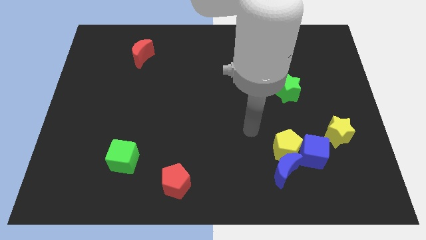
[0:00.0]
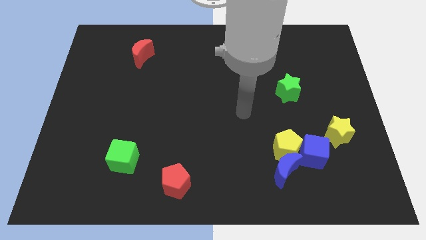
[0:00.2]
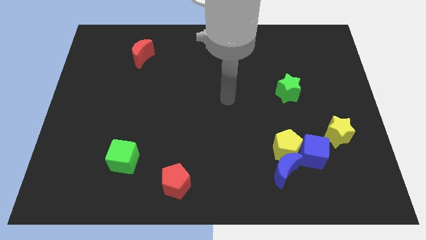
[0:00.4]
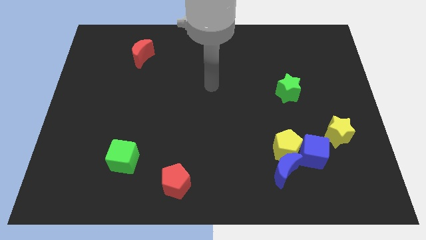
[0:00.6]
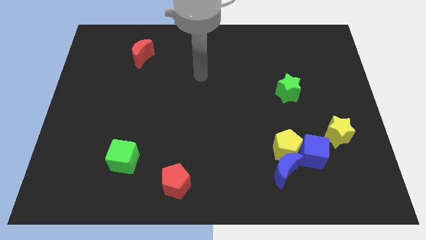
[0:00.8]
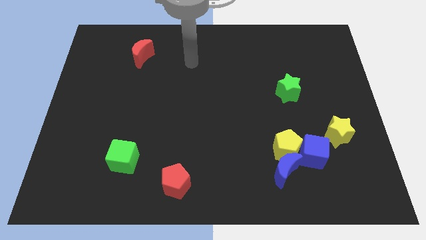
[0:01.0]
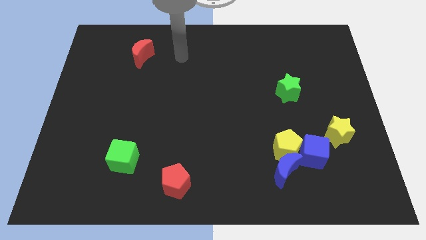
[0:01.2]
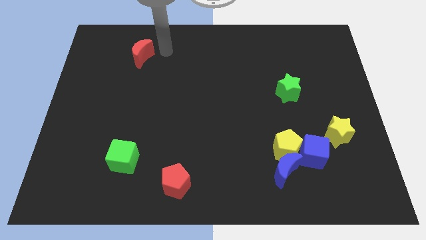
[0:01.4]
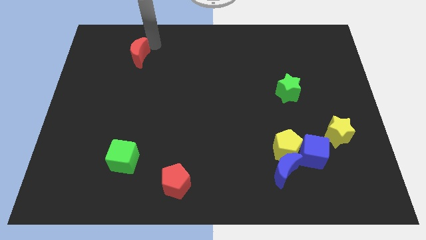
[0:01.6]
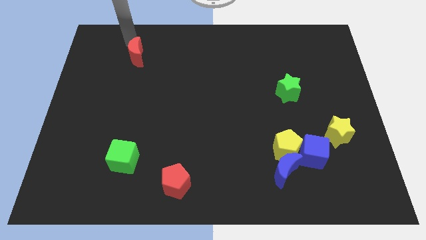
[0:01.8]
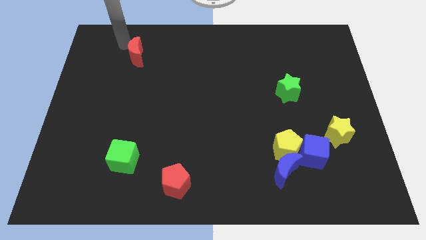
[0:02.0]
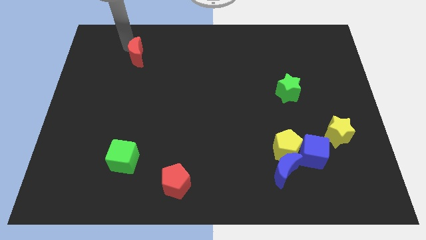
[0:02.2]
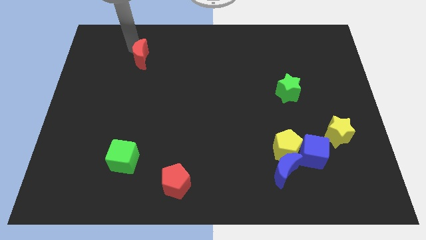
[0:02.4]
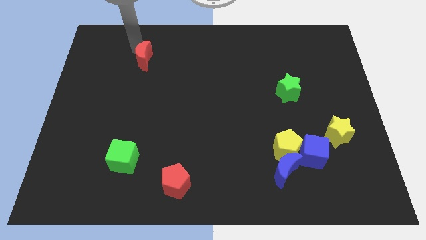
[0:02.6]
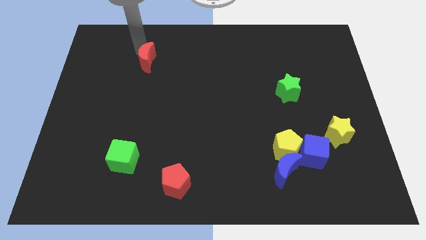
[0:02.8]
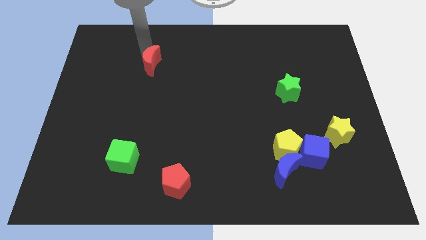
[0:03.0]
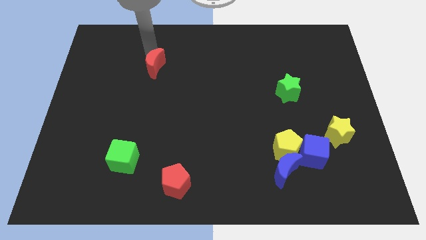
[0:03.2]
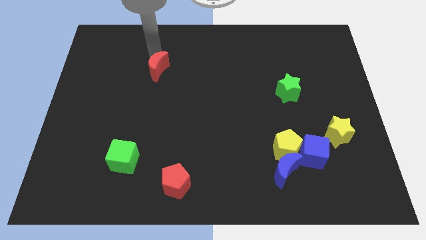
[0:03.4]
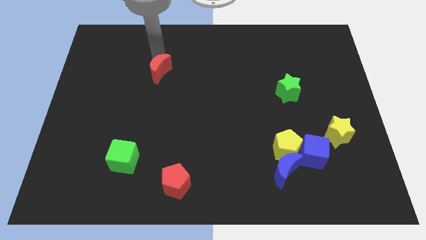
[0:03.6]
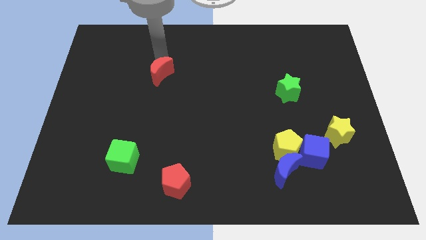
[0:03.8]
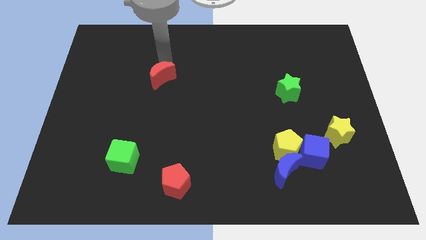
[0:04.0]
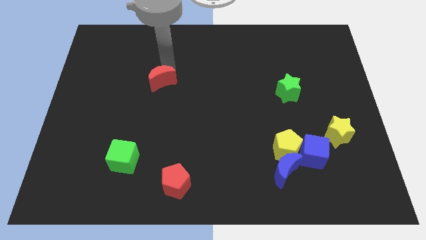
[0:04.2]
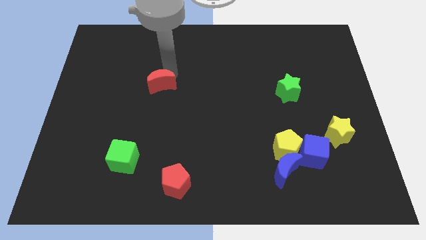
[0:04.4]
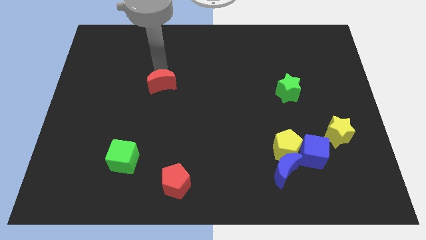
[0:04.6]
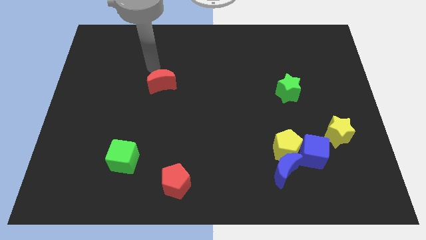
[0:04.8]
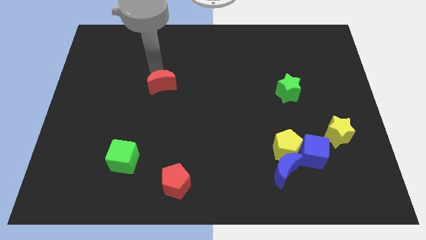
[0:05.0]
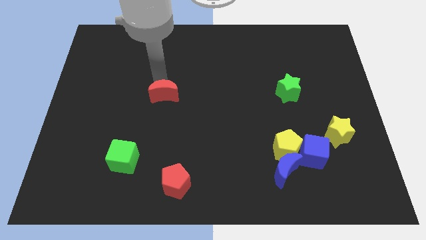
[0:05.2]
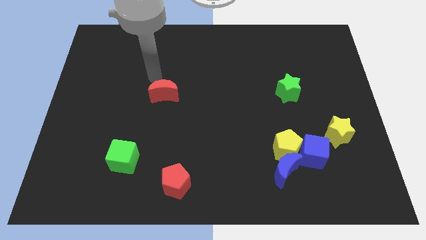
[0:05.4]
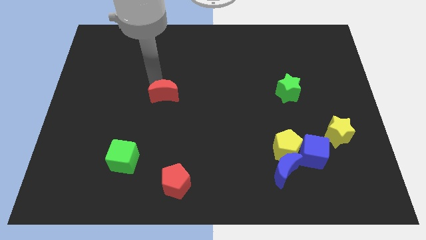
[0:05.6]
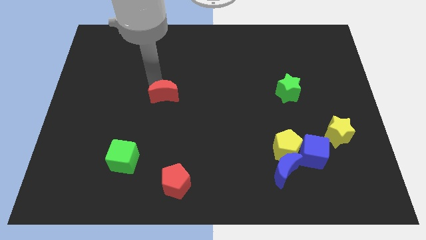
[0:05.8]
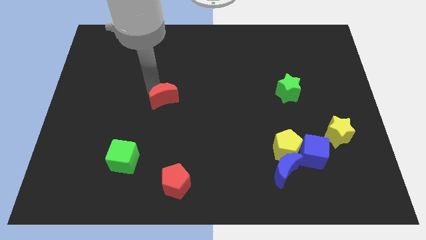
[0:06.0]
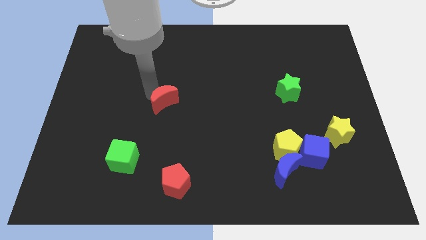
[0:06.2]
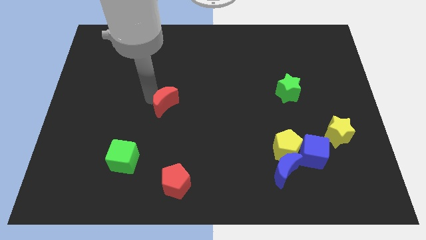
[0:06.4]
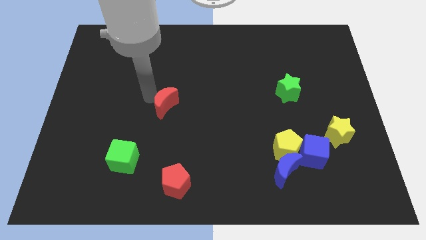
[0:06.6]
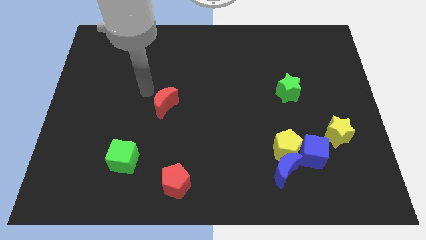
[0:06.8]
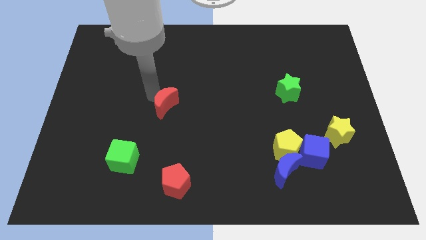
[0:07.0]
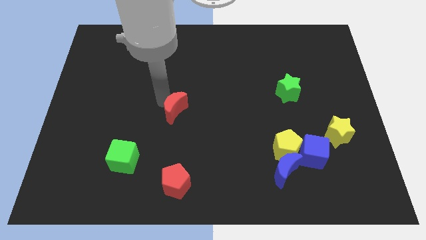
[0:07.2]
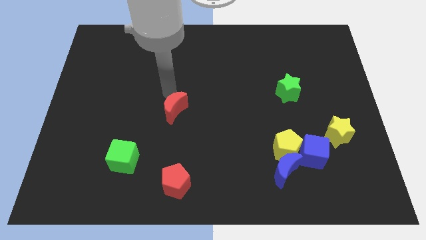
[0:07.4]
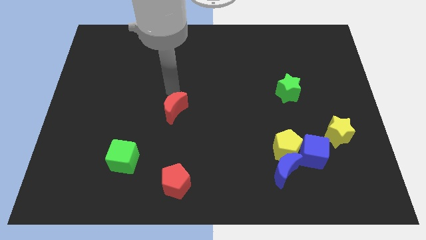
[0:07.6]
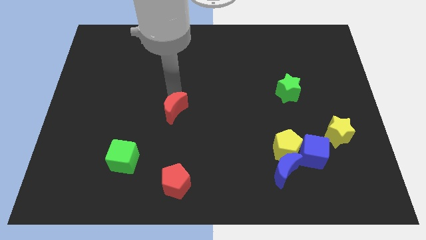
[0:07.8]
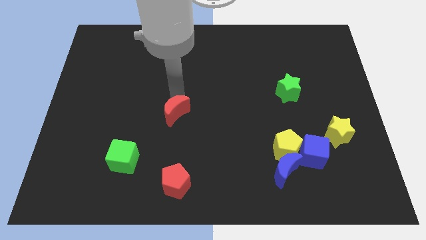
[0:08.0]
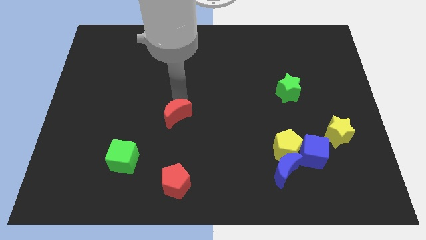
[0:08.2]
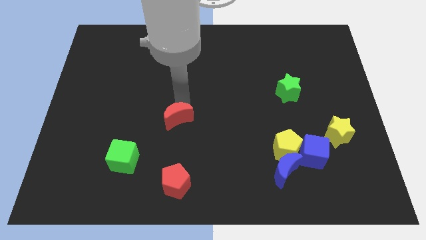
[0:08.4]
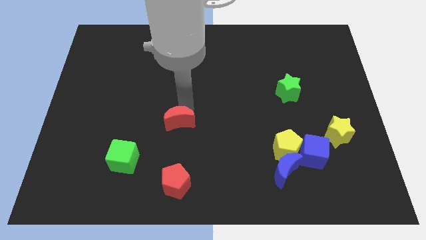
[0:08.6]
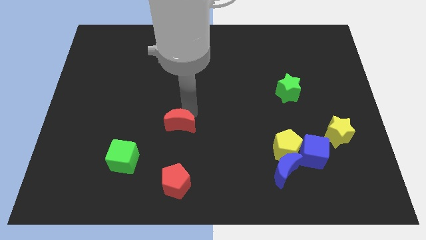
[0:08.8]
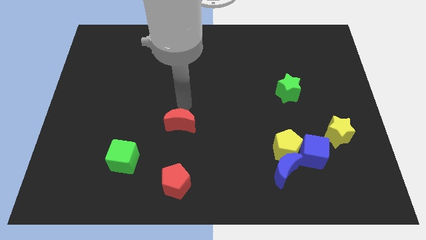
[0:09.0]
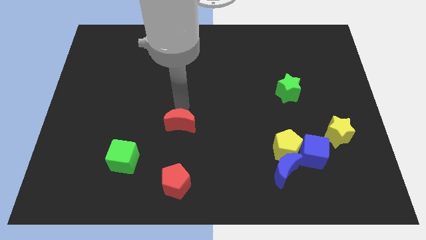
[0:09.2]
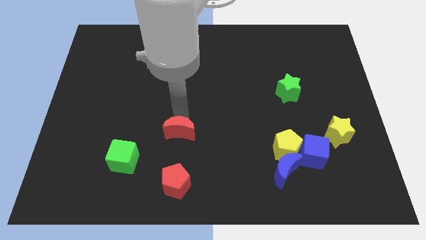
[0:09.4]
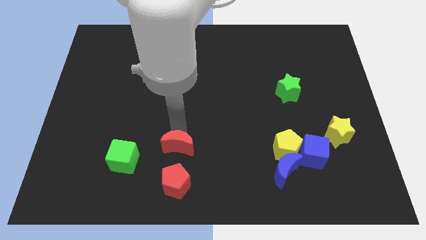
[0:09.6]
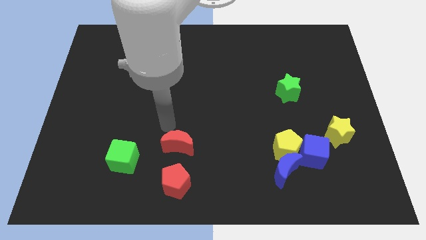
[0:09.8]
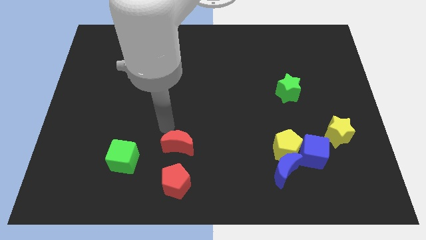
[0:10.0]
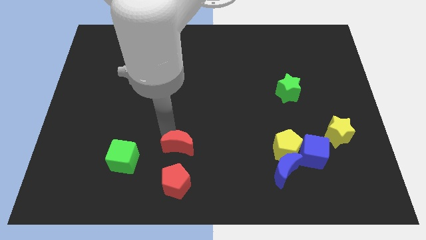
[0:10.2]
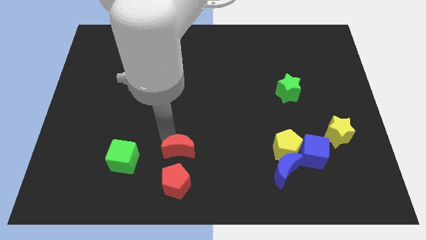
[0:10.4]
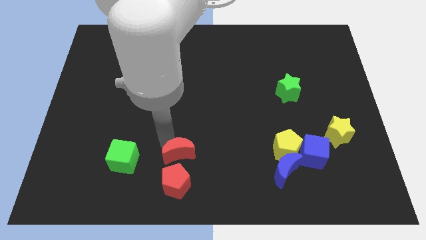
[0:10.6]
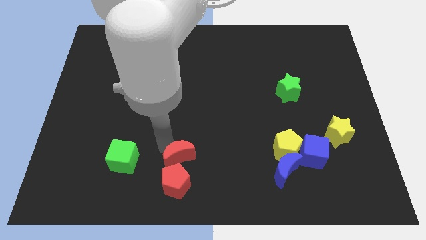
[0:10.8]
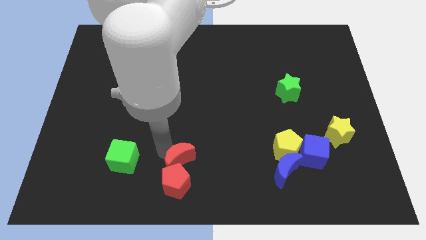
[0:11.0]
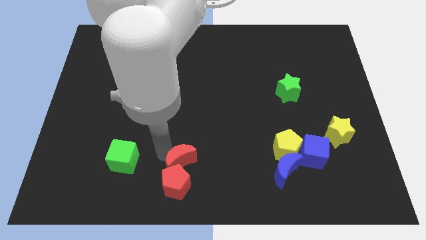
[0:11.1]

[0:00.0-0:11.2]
put the red moon to the bottom

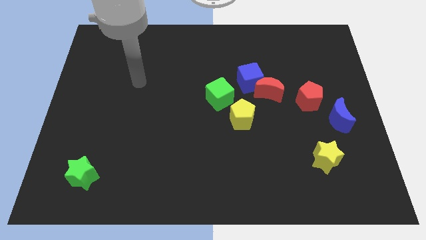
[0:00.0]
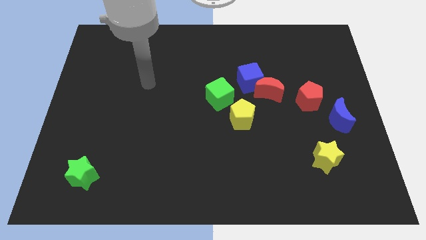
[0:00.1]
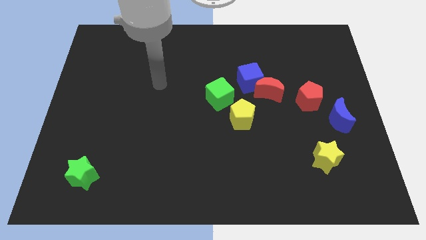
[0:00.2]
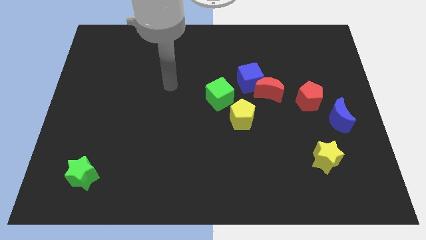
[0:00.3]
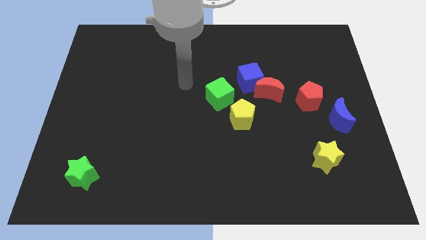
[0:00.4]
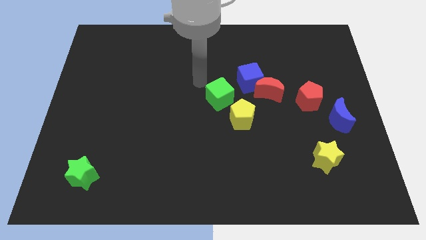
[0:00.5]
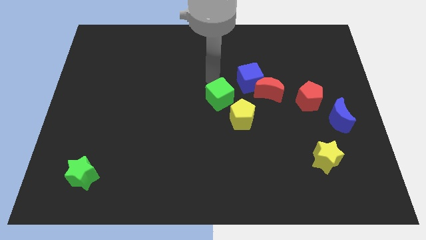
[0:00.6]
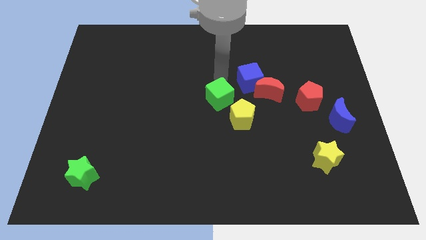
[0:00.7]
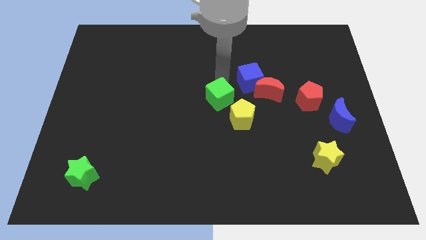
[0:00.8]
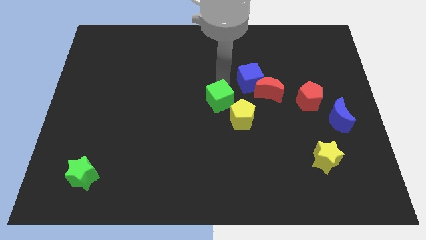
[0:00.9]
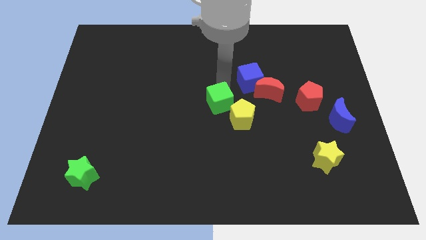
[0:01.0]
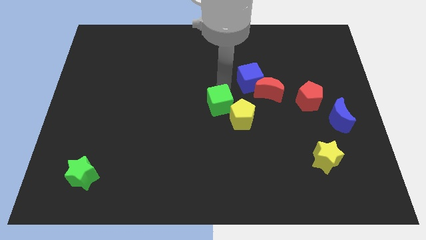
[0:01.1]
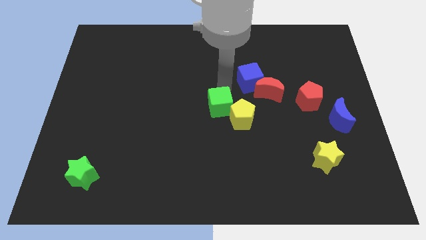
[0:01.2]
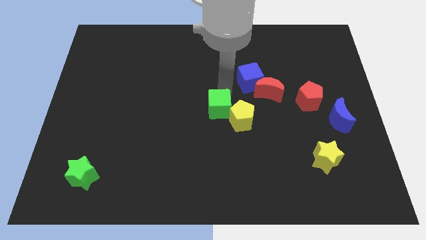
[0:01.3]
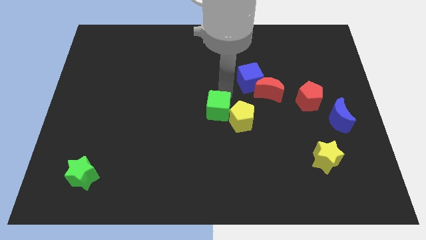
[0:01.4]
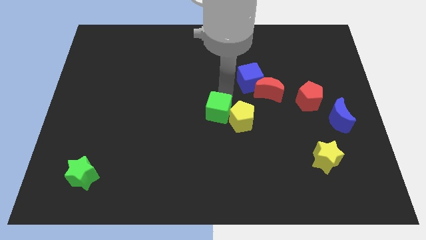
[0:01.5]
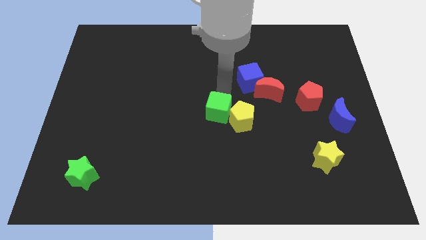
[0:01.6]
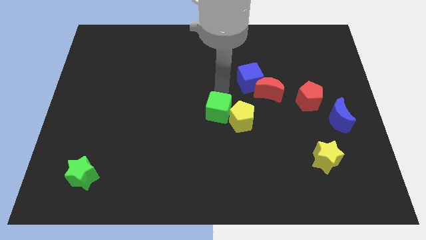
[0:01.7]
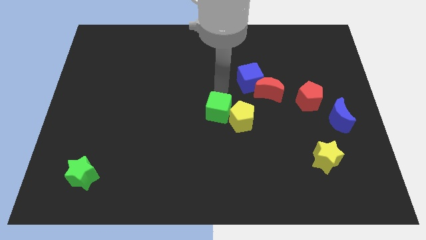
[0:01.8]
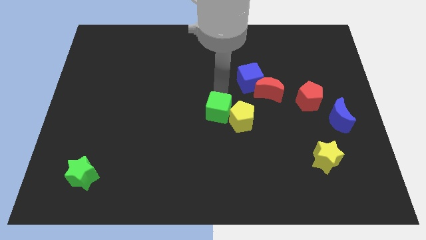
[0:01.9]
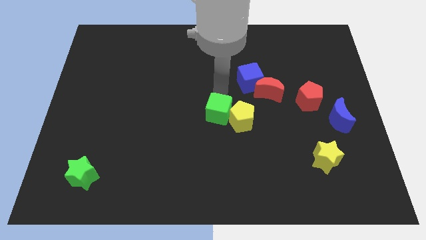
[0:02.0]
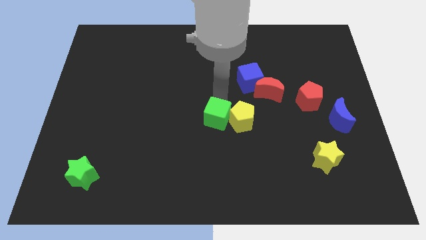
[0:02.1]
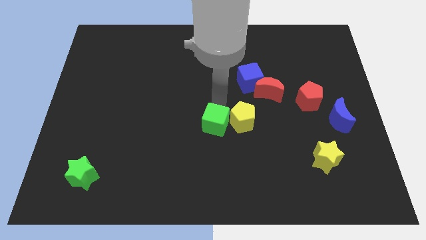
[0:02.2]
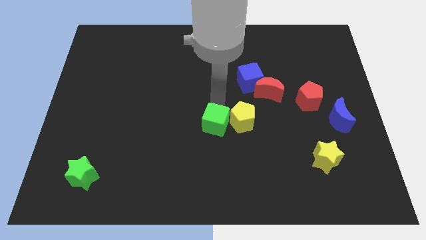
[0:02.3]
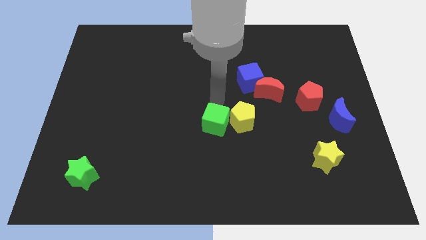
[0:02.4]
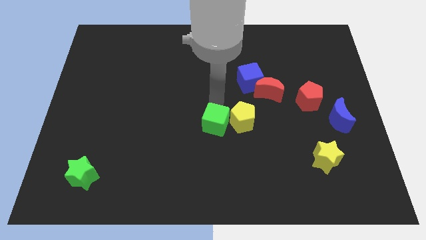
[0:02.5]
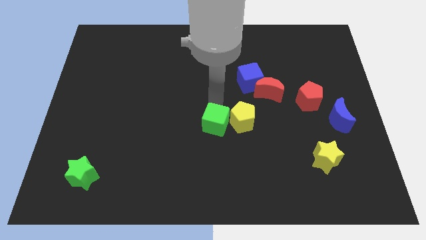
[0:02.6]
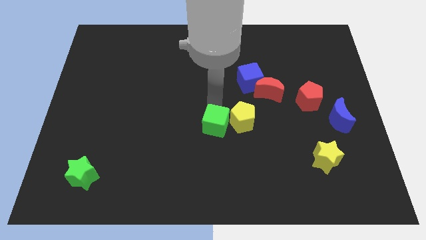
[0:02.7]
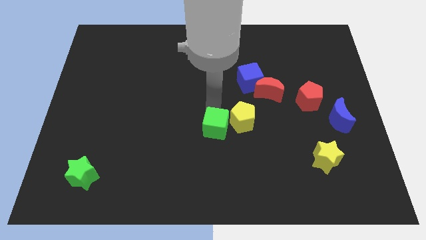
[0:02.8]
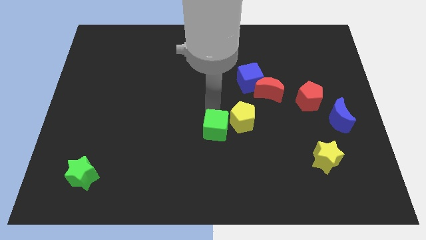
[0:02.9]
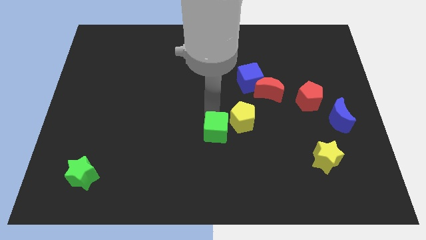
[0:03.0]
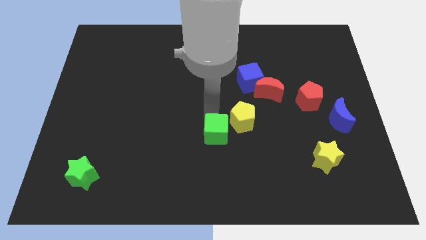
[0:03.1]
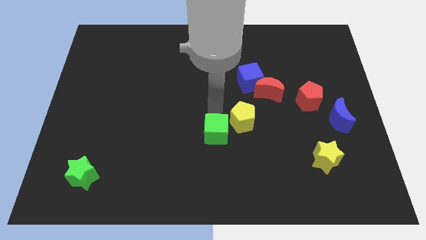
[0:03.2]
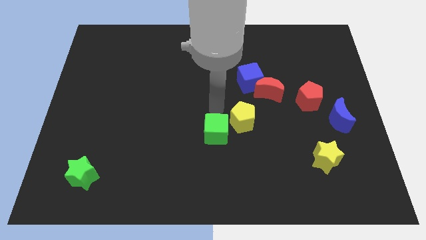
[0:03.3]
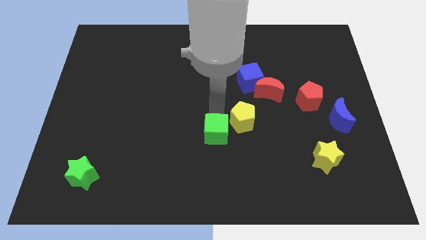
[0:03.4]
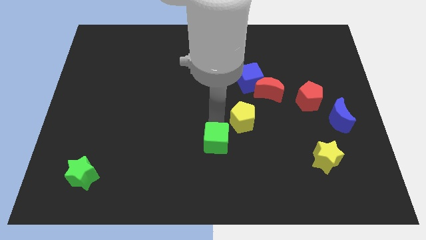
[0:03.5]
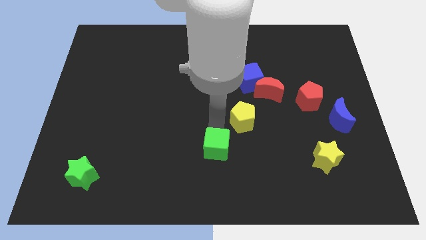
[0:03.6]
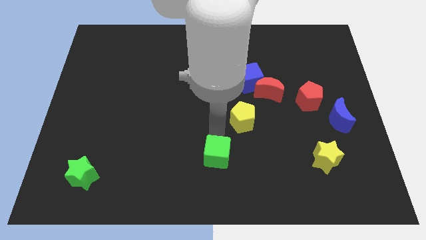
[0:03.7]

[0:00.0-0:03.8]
put the green cube to the bottom side
